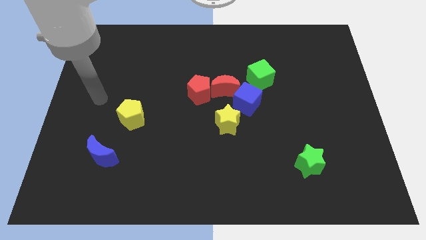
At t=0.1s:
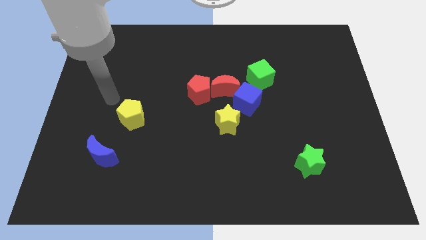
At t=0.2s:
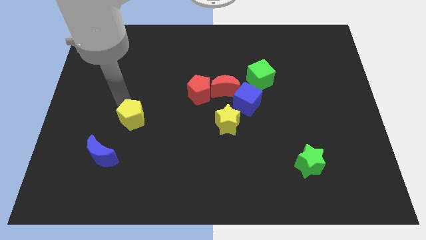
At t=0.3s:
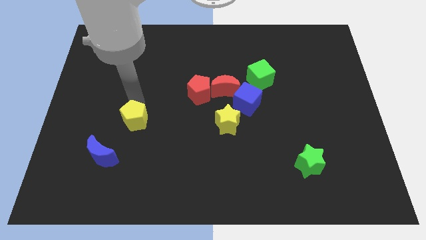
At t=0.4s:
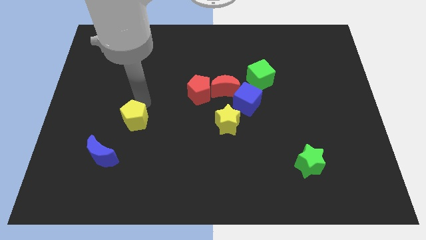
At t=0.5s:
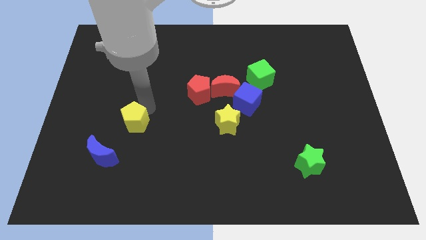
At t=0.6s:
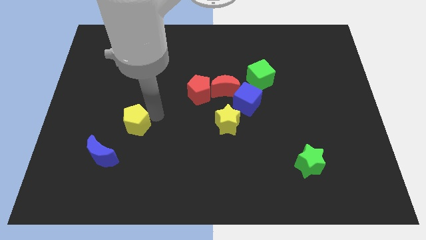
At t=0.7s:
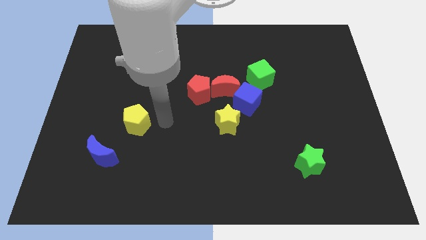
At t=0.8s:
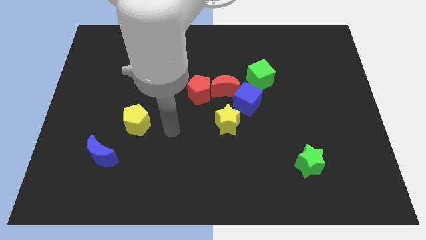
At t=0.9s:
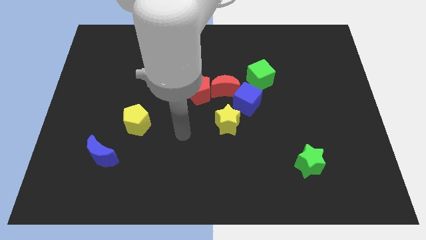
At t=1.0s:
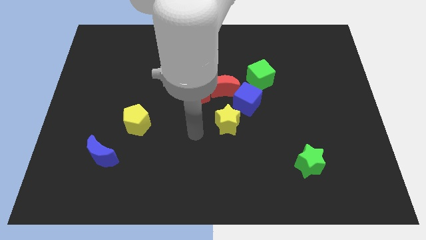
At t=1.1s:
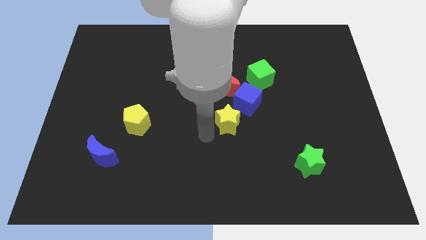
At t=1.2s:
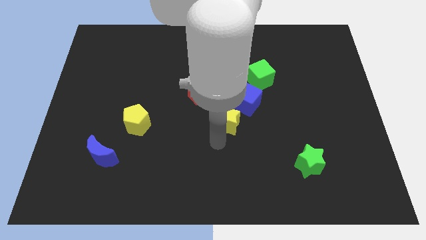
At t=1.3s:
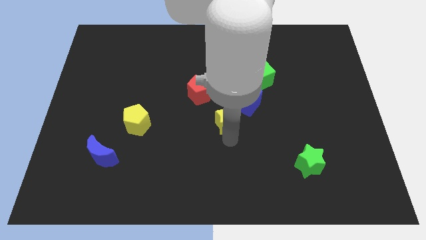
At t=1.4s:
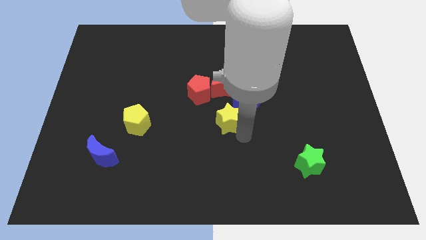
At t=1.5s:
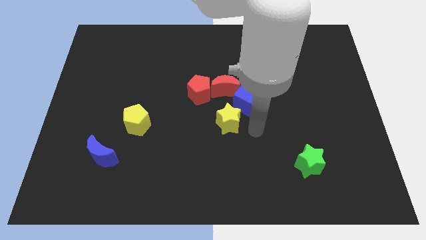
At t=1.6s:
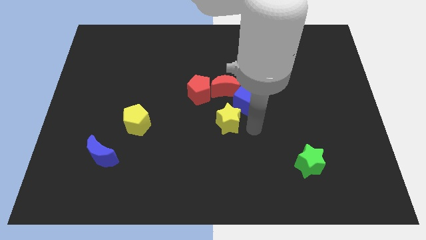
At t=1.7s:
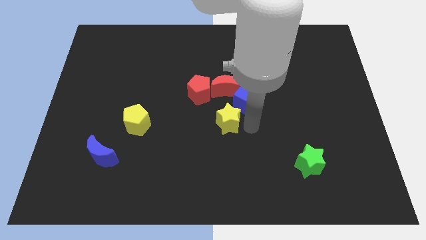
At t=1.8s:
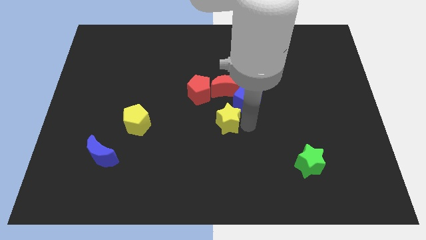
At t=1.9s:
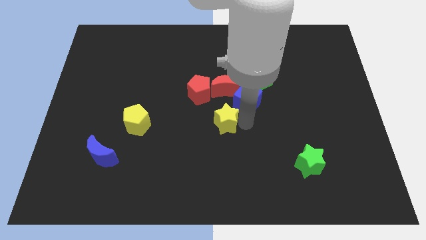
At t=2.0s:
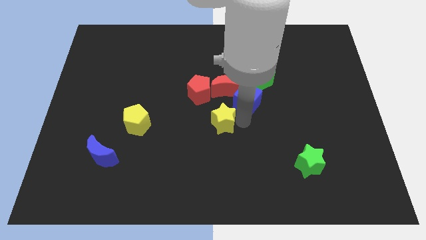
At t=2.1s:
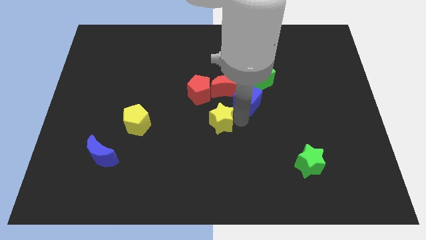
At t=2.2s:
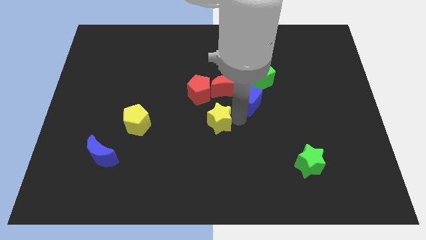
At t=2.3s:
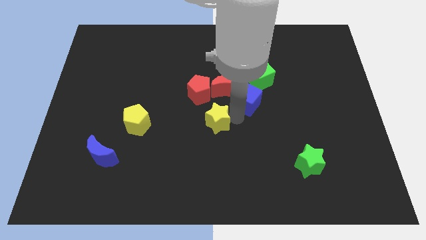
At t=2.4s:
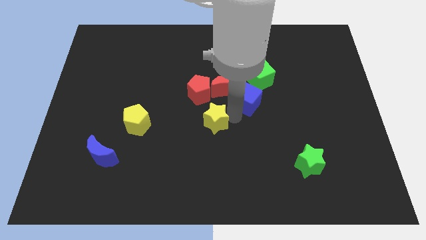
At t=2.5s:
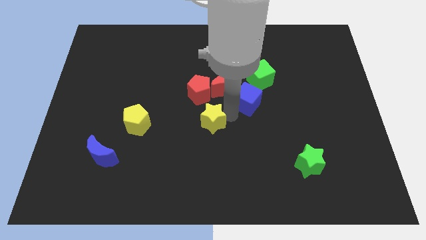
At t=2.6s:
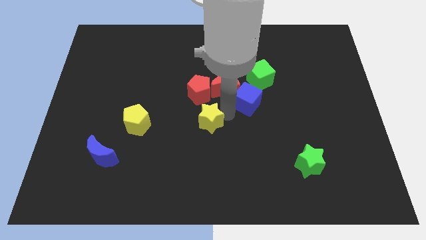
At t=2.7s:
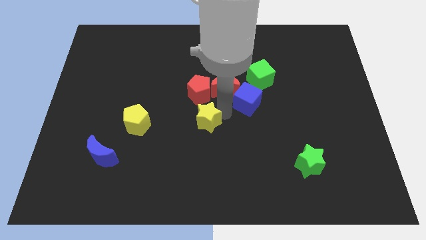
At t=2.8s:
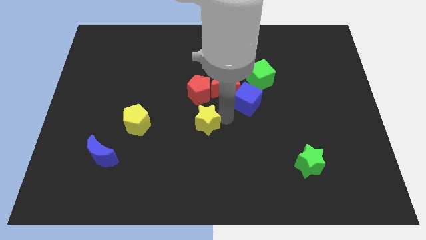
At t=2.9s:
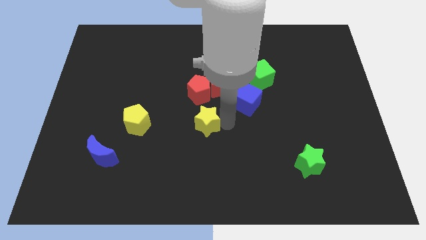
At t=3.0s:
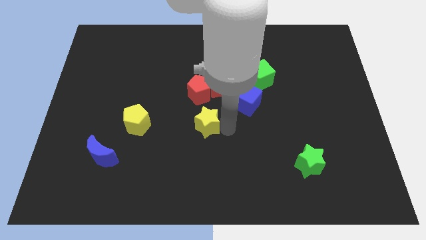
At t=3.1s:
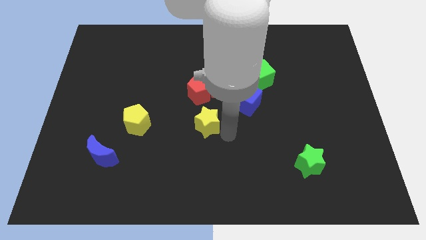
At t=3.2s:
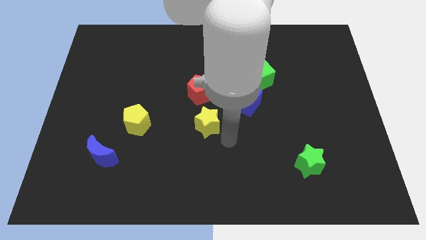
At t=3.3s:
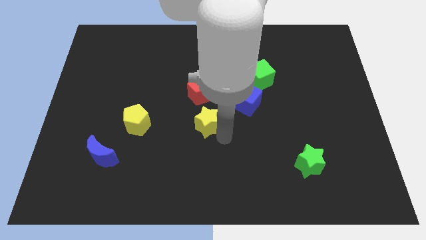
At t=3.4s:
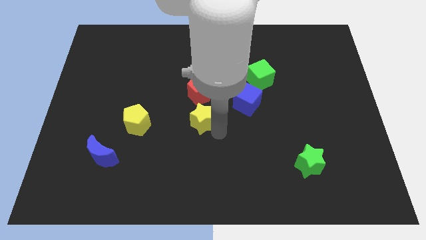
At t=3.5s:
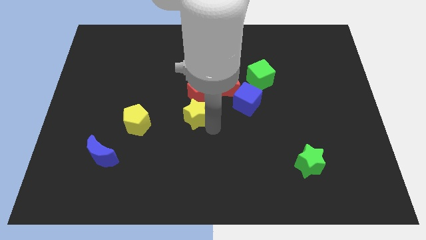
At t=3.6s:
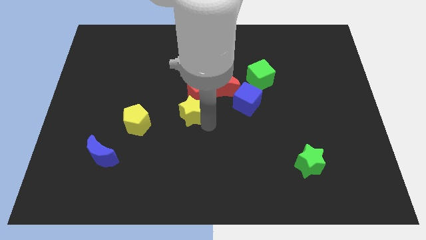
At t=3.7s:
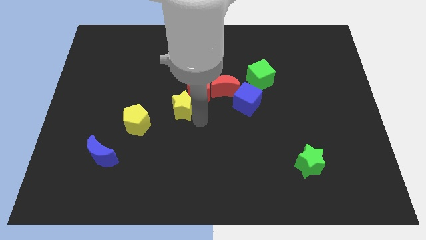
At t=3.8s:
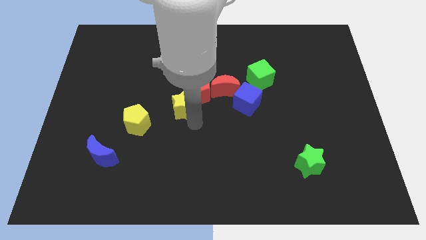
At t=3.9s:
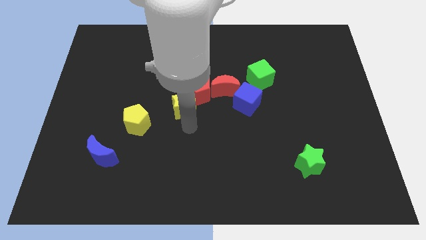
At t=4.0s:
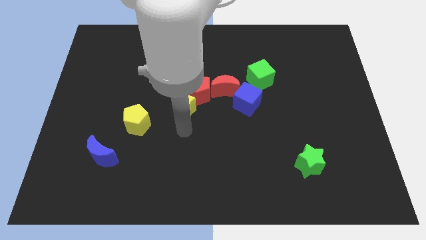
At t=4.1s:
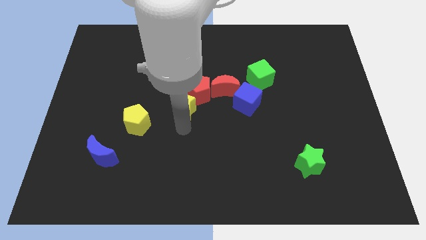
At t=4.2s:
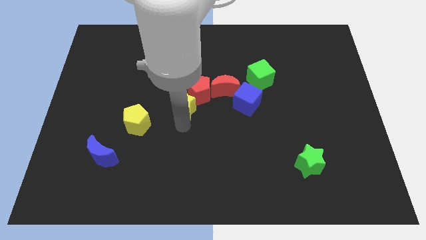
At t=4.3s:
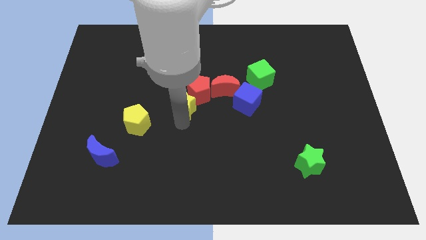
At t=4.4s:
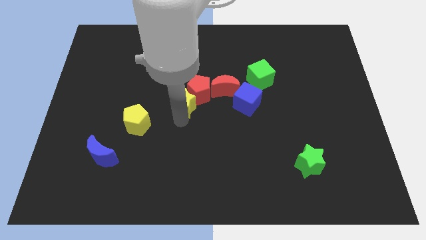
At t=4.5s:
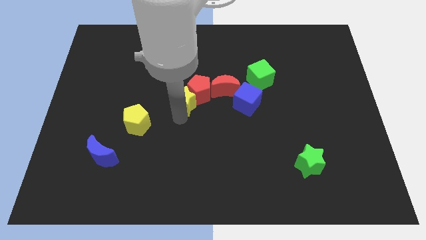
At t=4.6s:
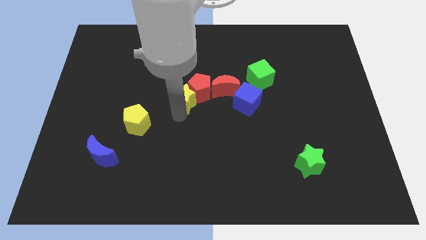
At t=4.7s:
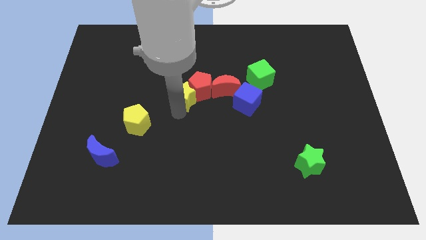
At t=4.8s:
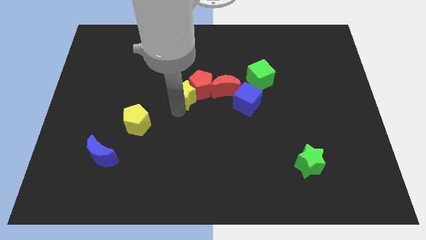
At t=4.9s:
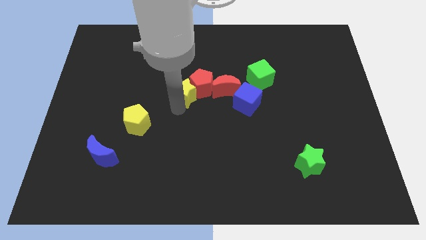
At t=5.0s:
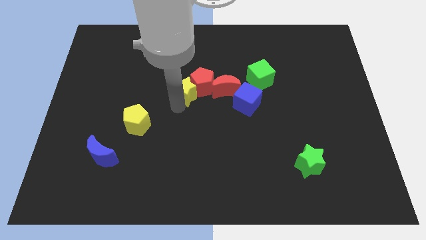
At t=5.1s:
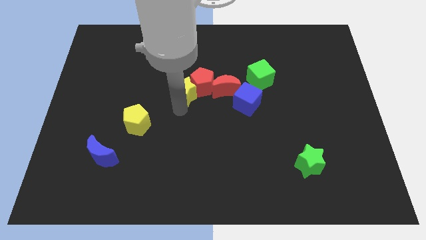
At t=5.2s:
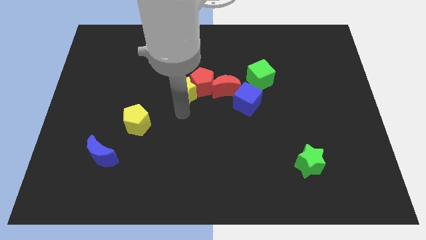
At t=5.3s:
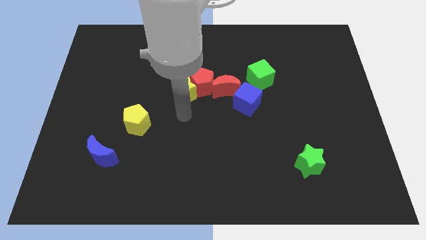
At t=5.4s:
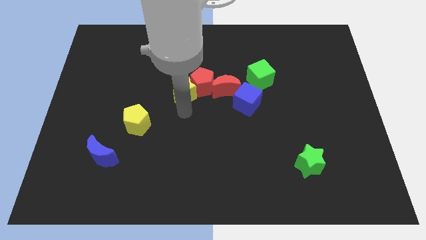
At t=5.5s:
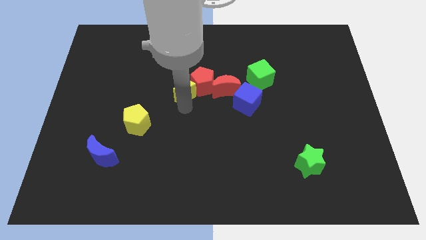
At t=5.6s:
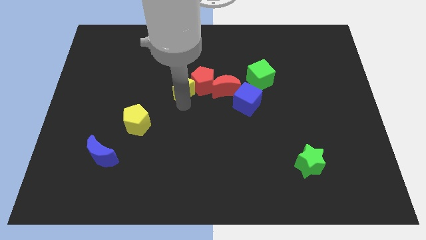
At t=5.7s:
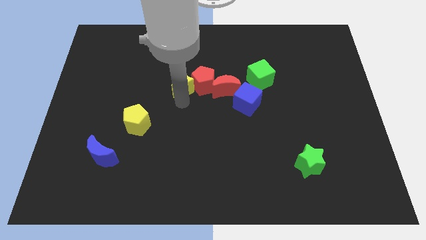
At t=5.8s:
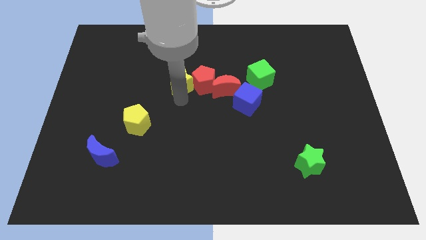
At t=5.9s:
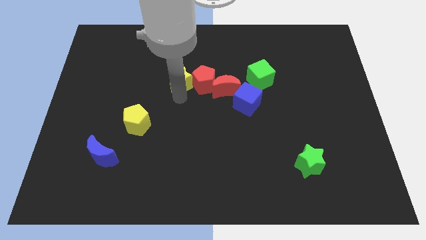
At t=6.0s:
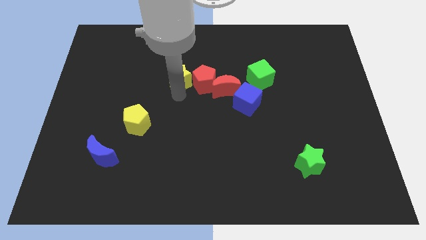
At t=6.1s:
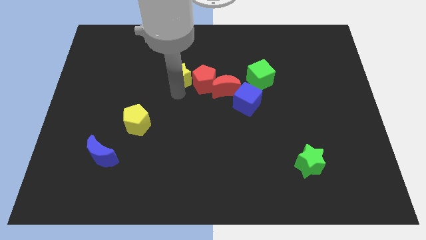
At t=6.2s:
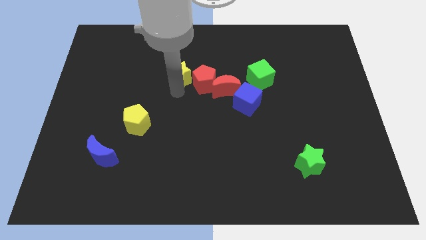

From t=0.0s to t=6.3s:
push the yellow star upwards somewhat

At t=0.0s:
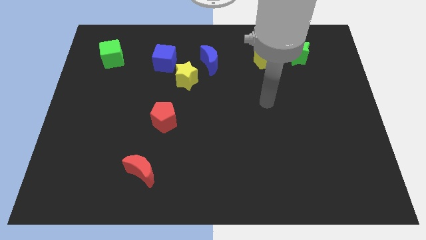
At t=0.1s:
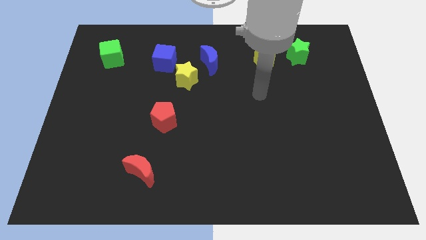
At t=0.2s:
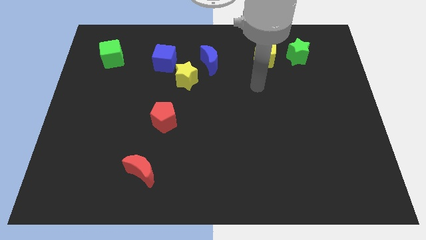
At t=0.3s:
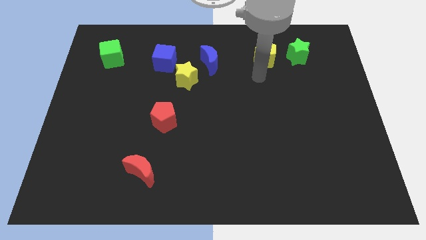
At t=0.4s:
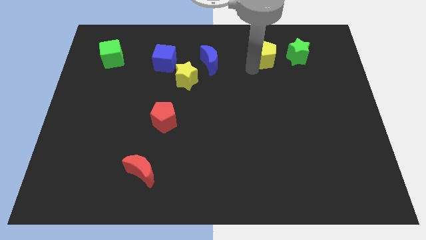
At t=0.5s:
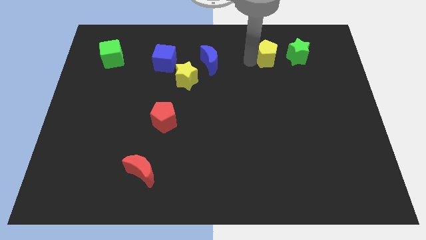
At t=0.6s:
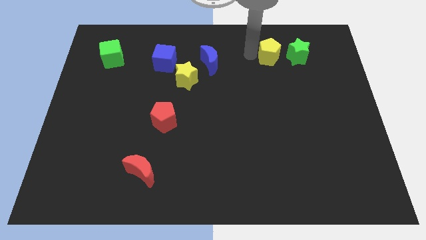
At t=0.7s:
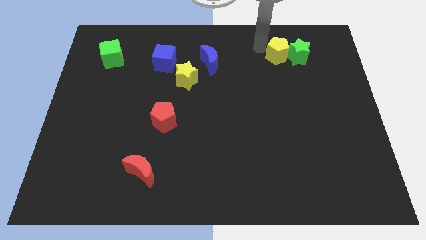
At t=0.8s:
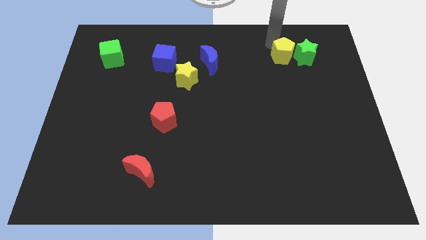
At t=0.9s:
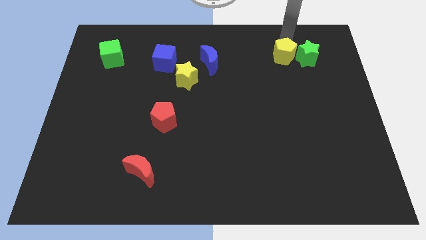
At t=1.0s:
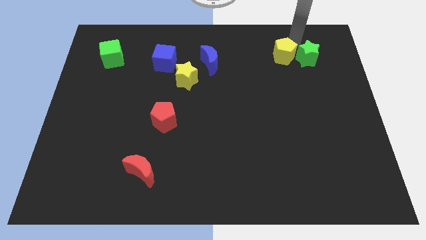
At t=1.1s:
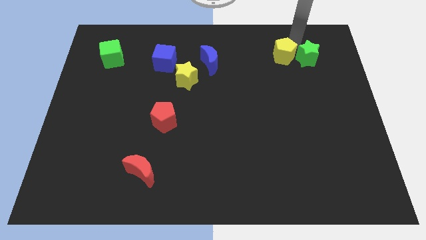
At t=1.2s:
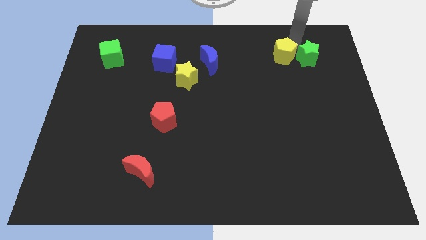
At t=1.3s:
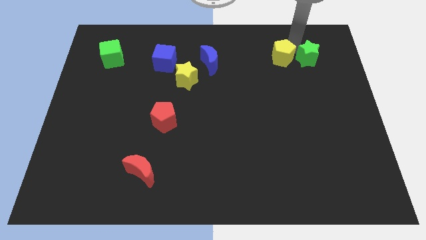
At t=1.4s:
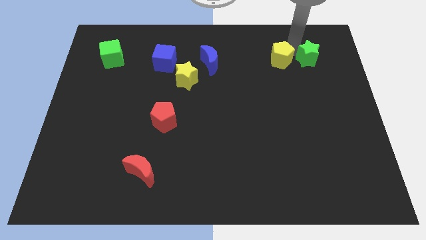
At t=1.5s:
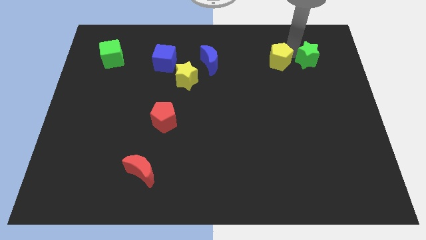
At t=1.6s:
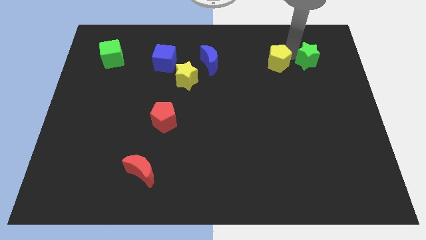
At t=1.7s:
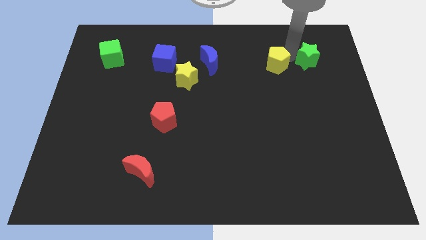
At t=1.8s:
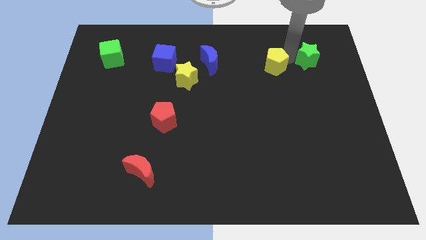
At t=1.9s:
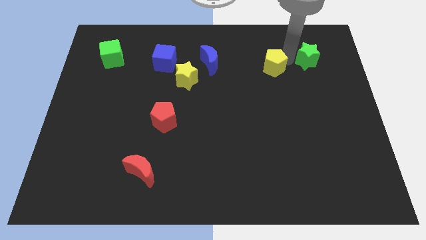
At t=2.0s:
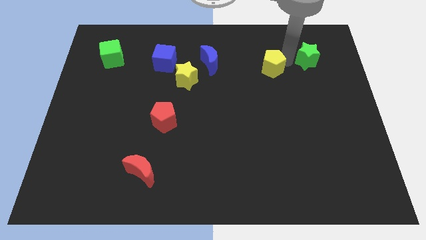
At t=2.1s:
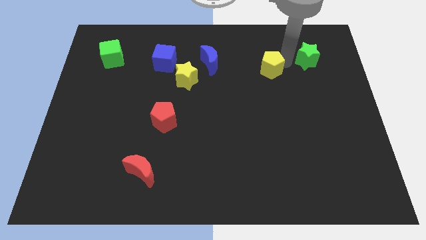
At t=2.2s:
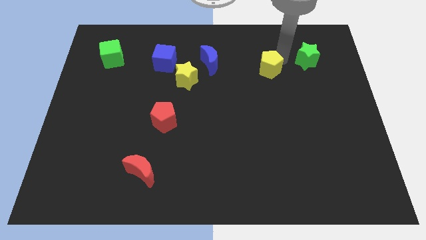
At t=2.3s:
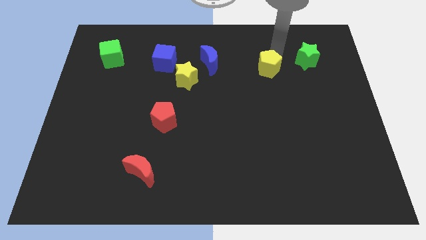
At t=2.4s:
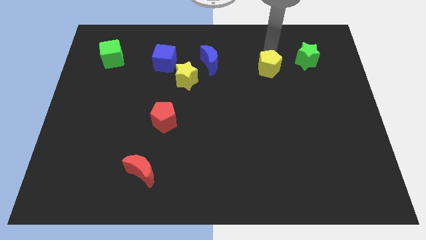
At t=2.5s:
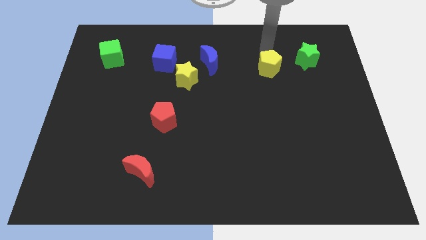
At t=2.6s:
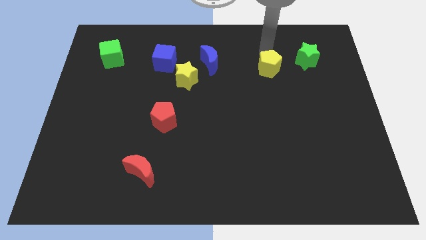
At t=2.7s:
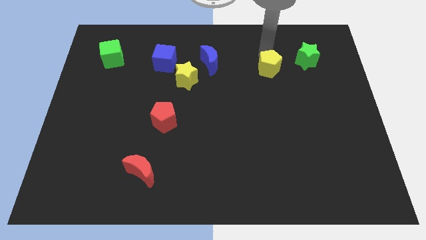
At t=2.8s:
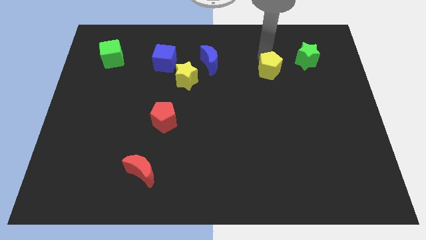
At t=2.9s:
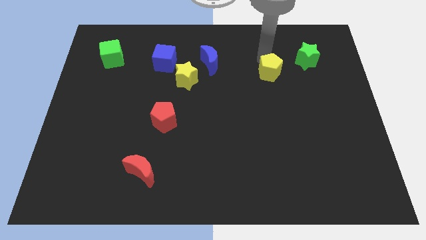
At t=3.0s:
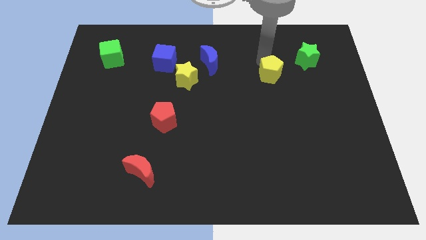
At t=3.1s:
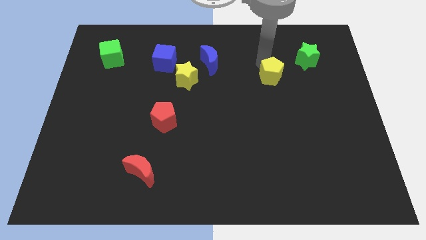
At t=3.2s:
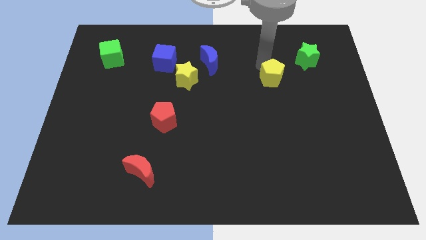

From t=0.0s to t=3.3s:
move the yellow pentagon down a little
